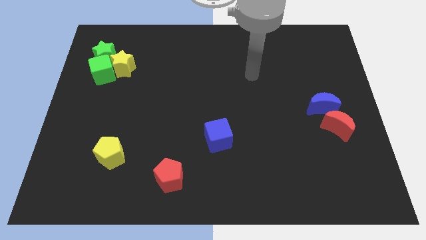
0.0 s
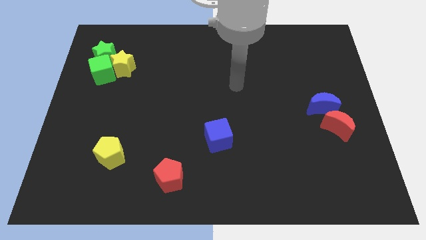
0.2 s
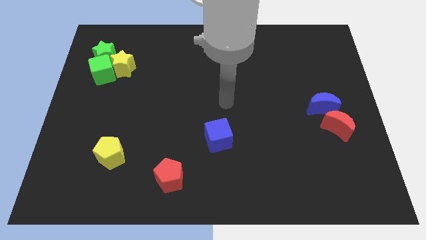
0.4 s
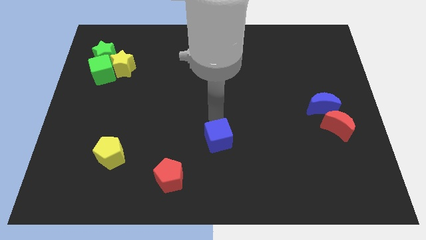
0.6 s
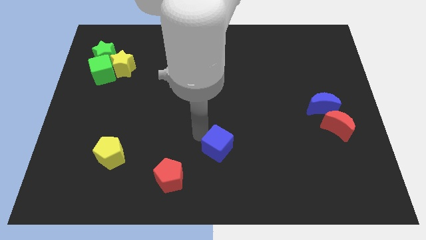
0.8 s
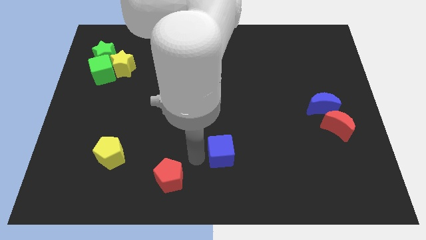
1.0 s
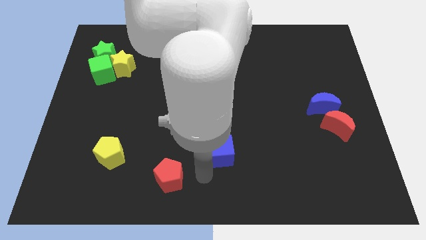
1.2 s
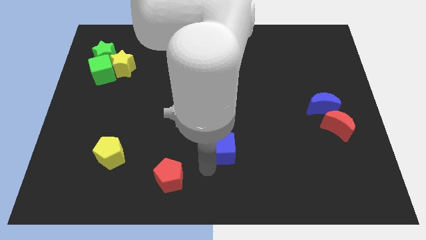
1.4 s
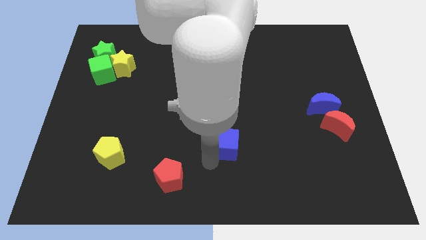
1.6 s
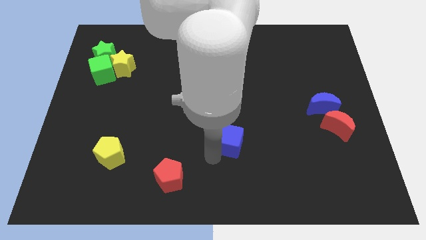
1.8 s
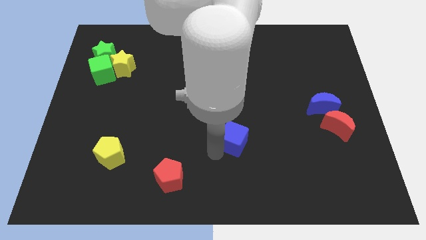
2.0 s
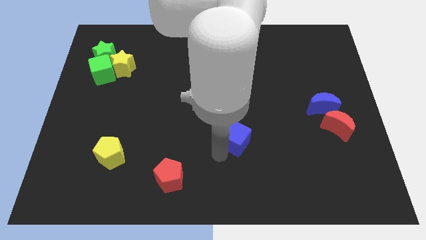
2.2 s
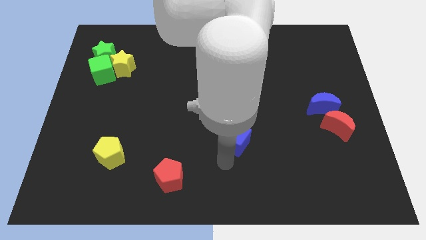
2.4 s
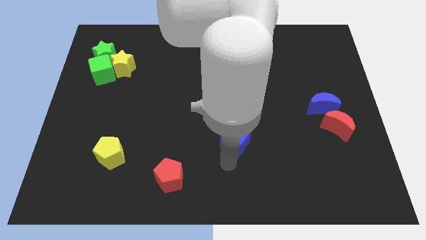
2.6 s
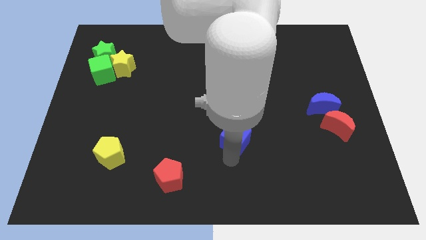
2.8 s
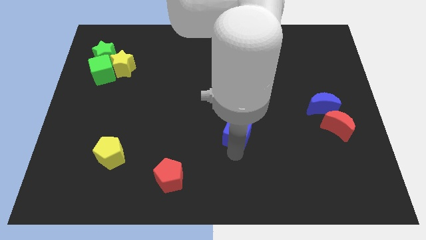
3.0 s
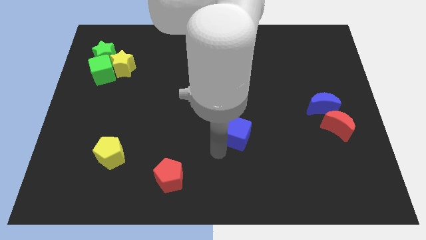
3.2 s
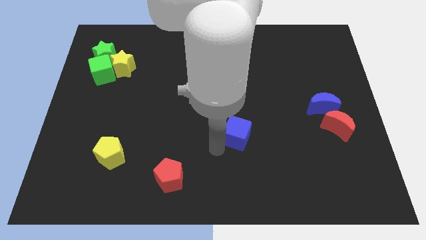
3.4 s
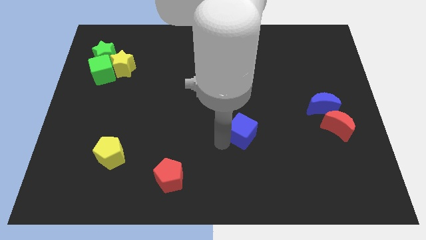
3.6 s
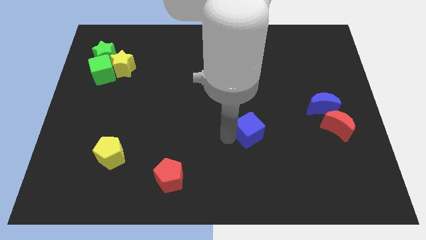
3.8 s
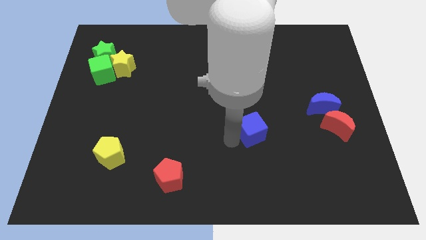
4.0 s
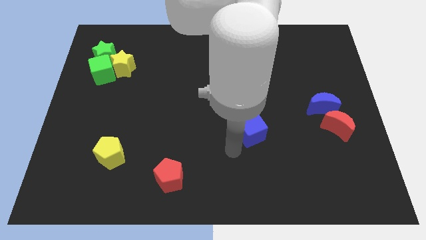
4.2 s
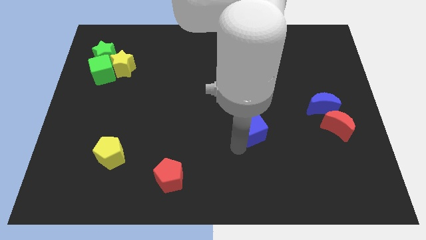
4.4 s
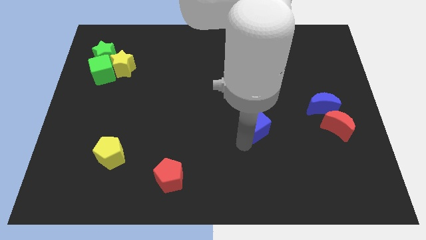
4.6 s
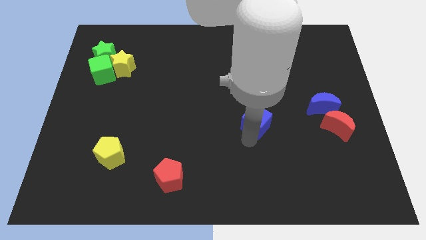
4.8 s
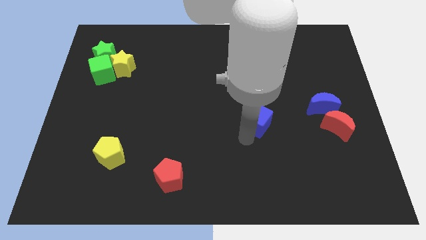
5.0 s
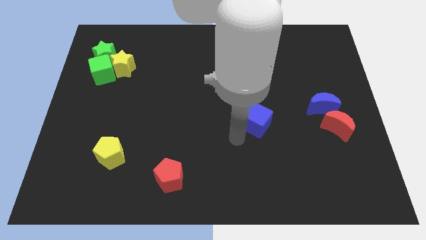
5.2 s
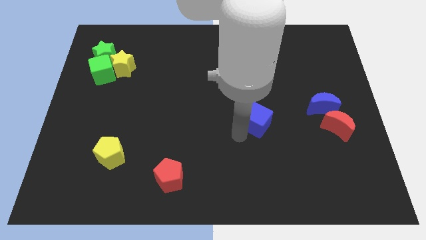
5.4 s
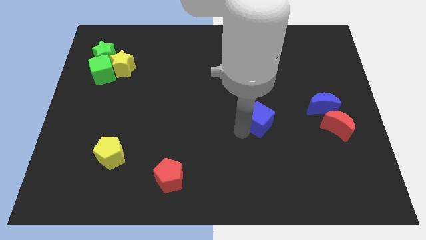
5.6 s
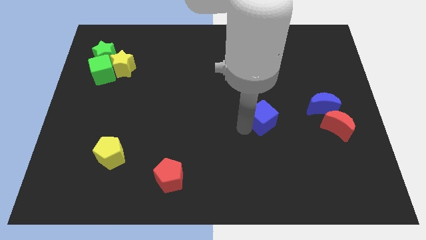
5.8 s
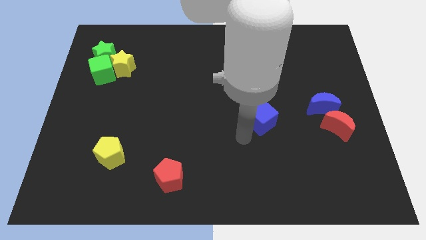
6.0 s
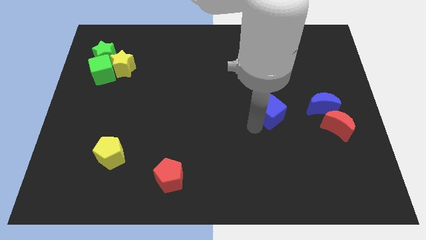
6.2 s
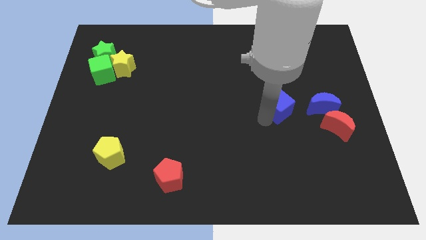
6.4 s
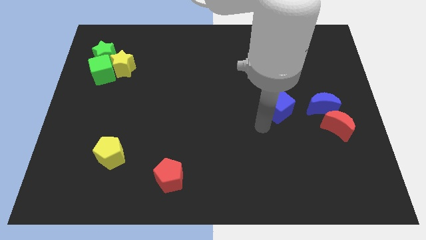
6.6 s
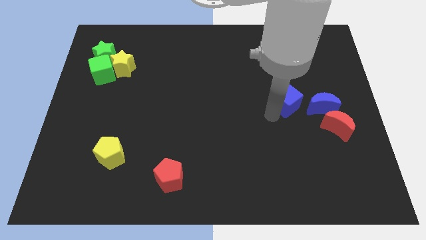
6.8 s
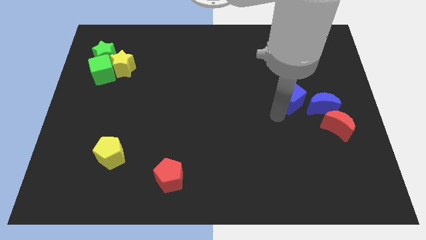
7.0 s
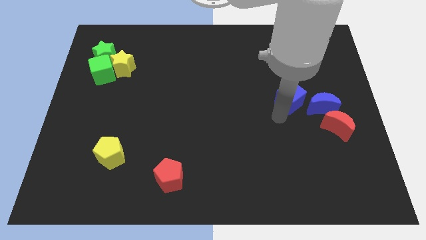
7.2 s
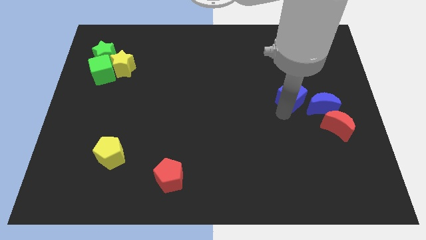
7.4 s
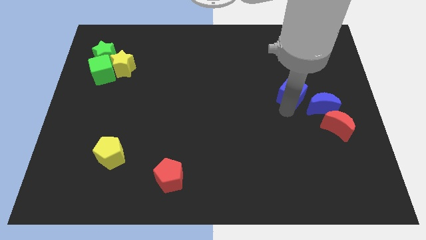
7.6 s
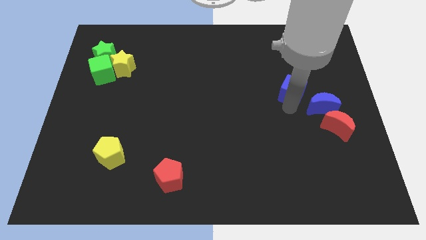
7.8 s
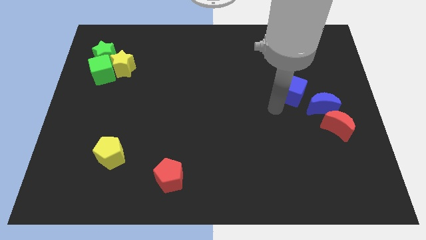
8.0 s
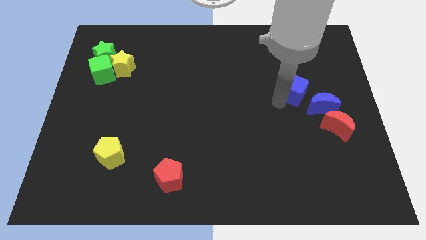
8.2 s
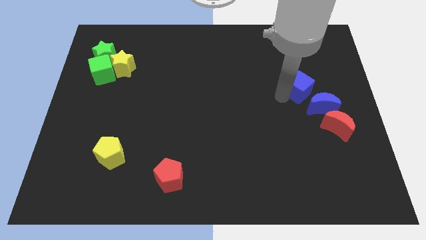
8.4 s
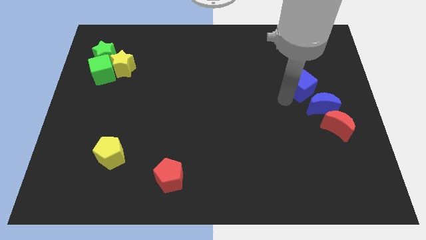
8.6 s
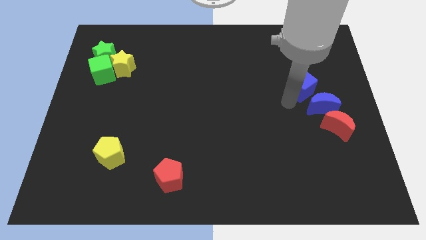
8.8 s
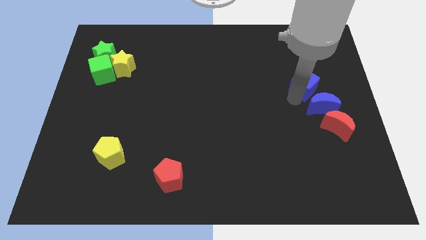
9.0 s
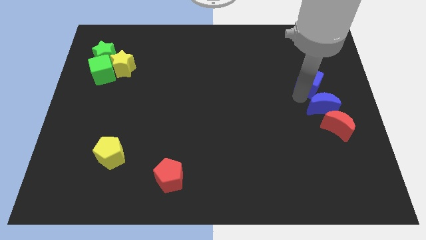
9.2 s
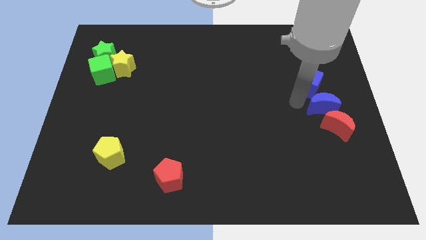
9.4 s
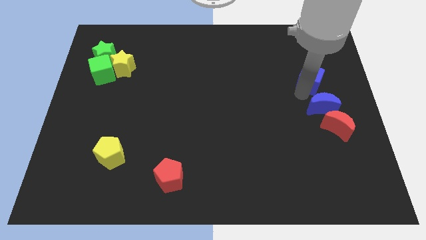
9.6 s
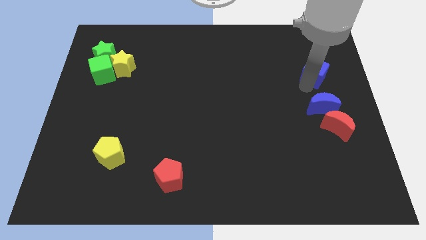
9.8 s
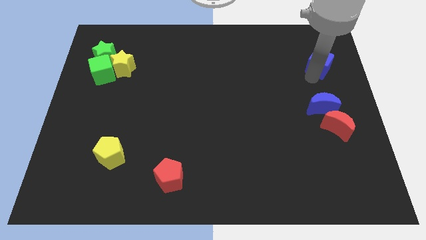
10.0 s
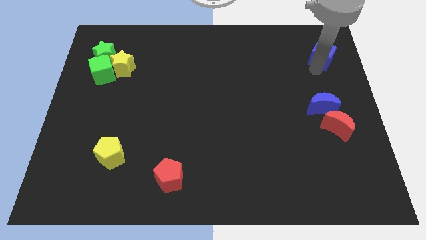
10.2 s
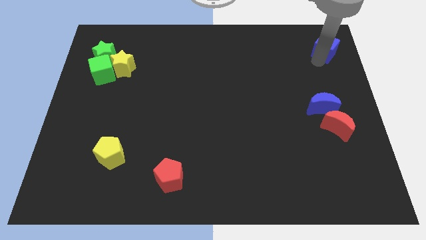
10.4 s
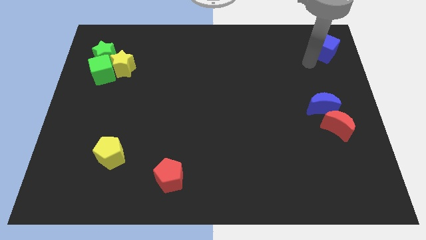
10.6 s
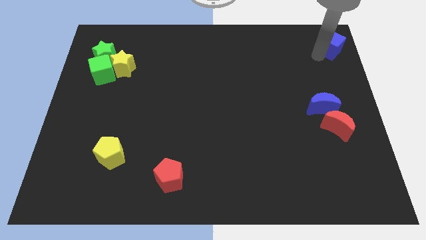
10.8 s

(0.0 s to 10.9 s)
push the blue cube to the top right of the board

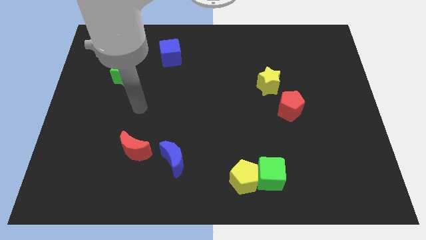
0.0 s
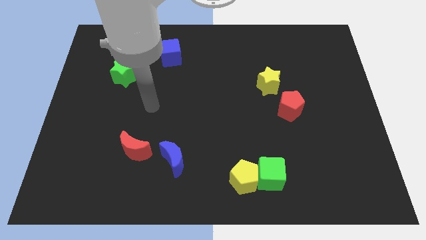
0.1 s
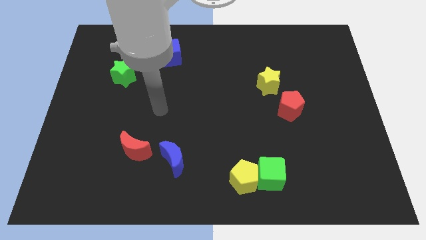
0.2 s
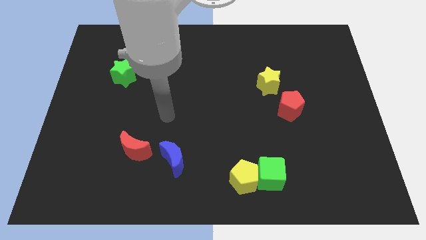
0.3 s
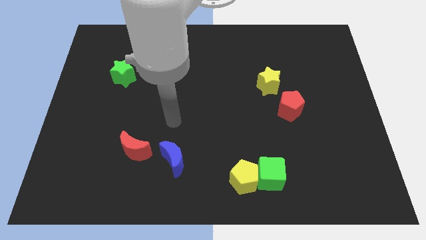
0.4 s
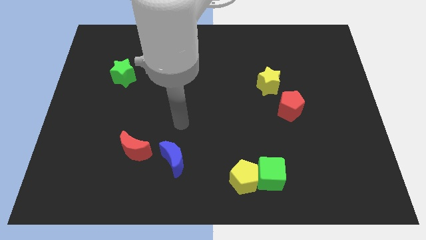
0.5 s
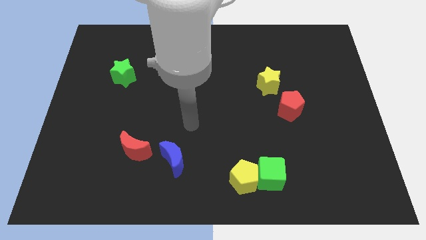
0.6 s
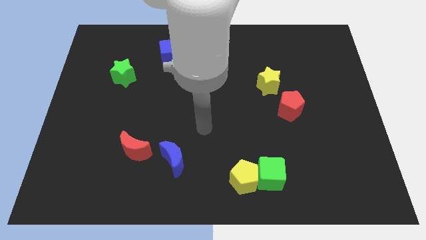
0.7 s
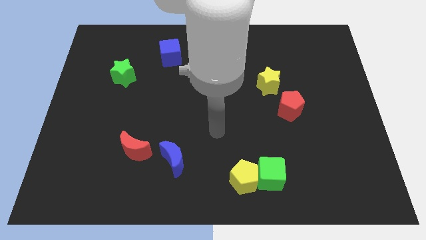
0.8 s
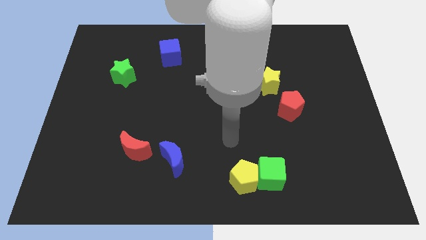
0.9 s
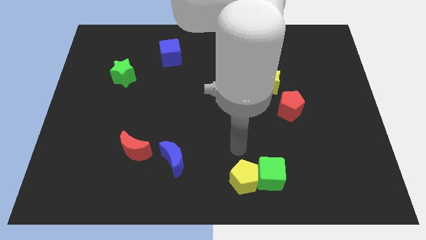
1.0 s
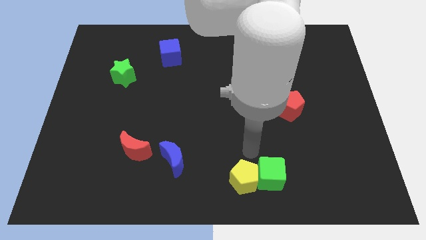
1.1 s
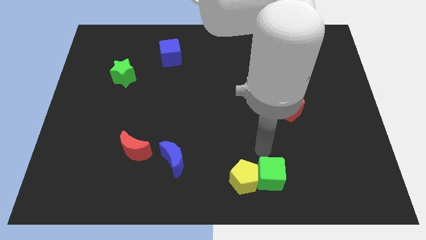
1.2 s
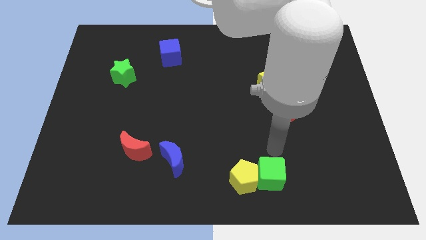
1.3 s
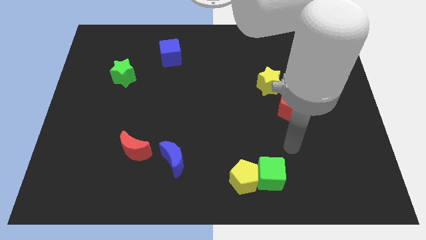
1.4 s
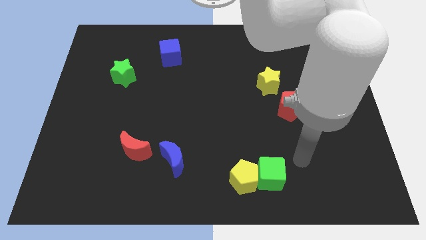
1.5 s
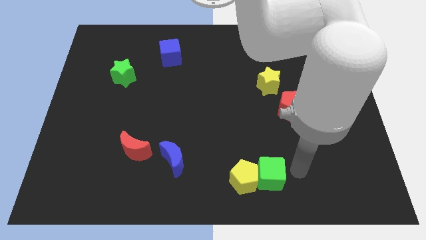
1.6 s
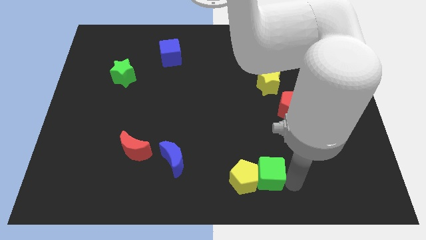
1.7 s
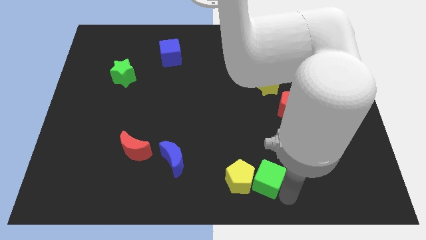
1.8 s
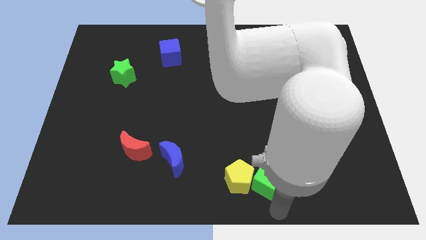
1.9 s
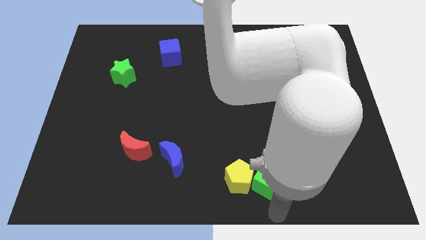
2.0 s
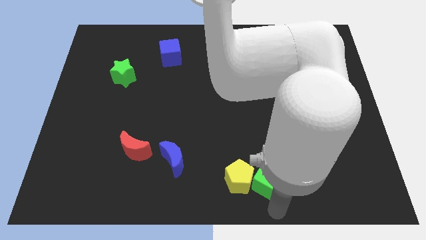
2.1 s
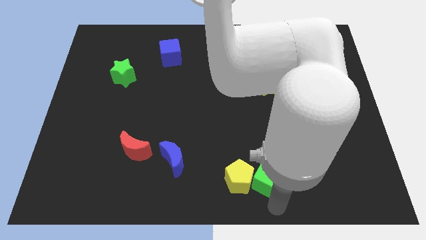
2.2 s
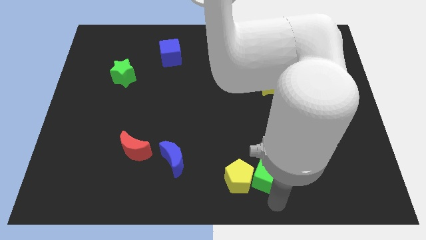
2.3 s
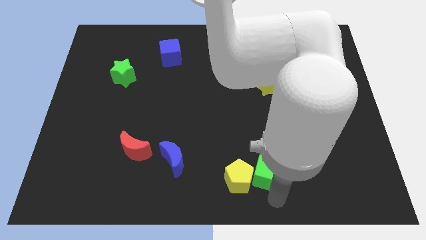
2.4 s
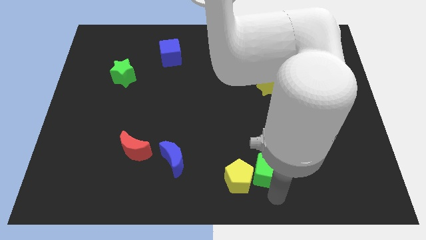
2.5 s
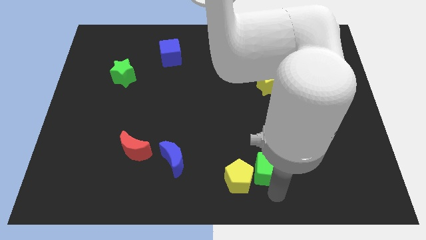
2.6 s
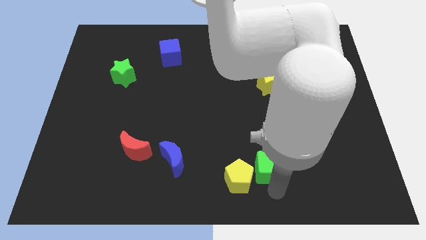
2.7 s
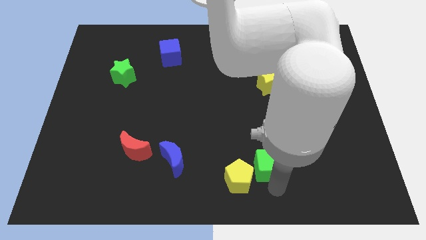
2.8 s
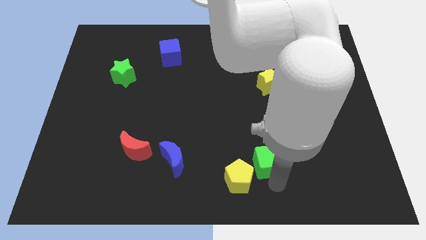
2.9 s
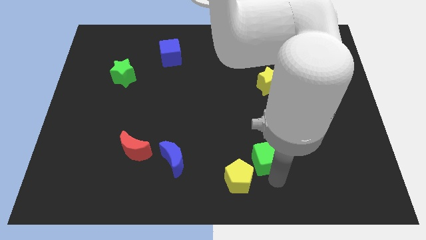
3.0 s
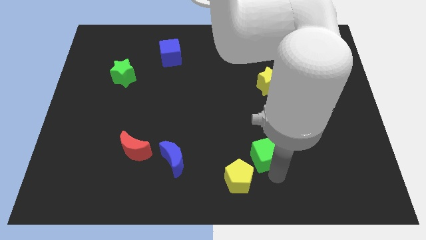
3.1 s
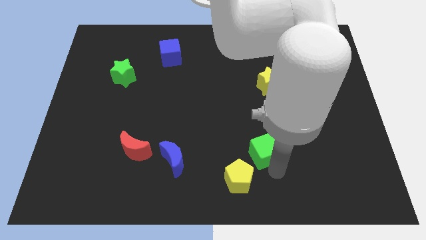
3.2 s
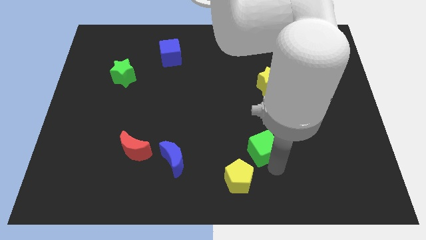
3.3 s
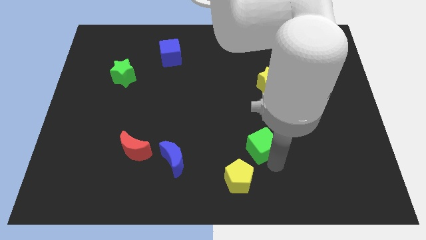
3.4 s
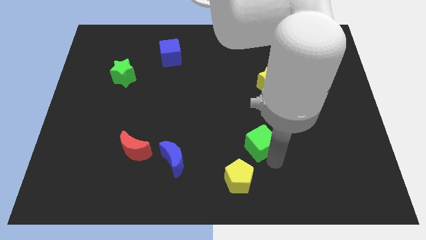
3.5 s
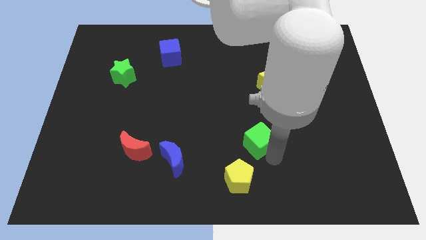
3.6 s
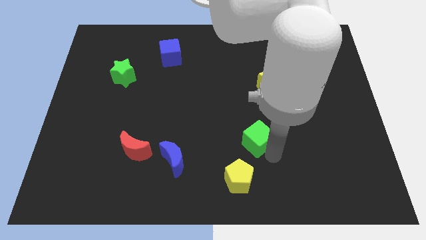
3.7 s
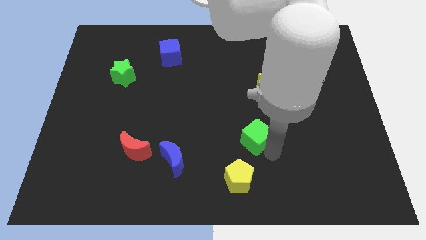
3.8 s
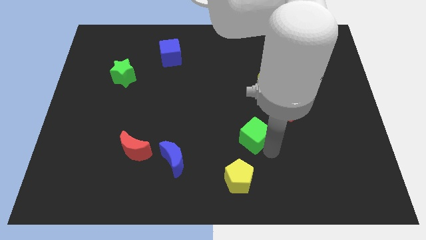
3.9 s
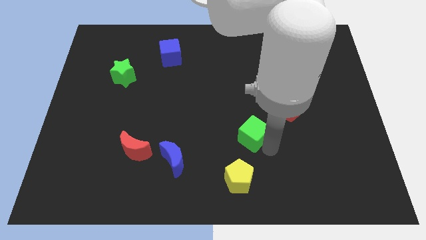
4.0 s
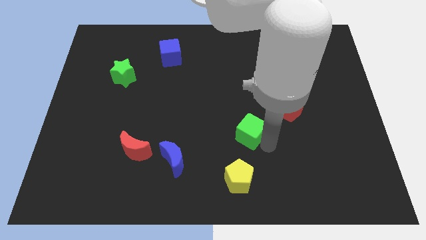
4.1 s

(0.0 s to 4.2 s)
put the green cube to the center of the board
